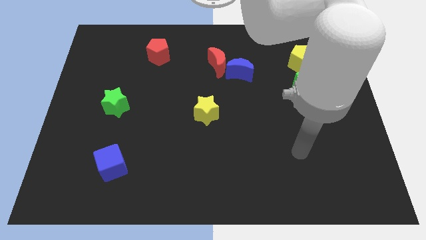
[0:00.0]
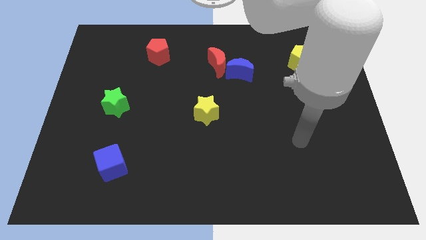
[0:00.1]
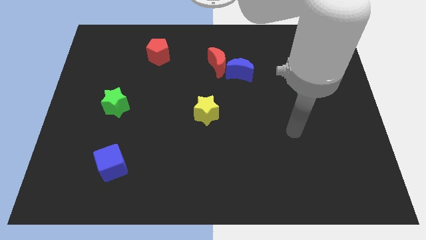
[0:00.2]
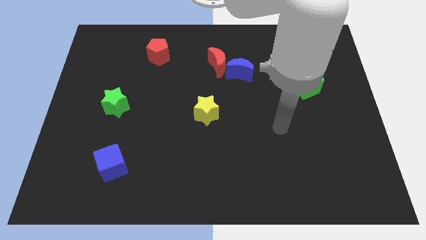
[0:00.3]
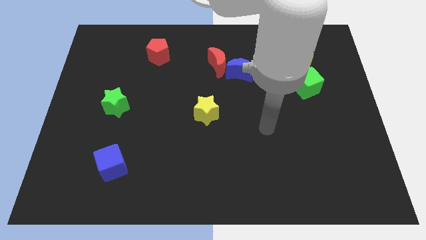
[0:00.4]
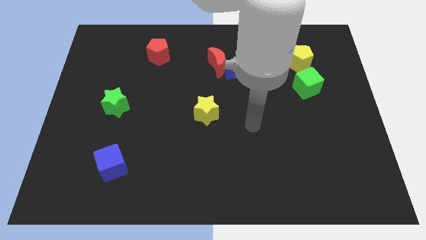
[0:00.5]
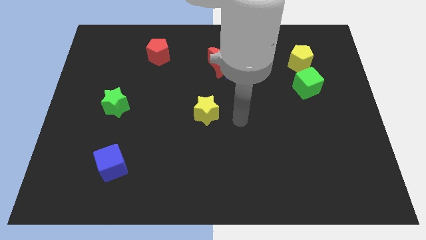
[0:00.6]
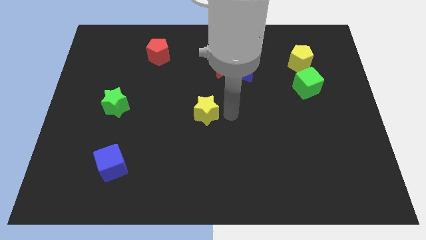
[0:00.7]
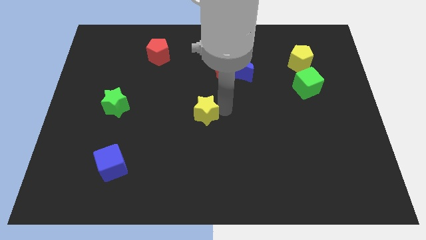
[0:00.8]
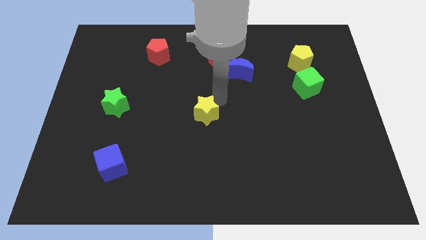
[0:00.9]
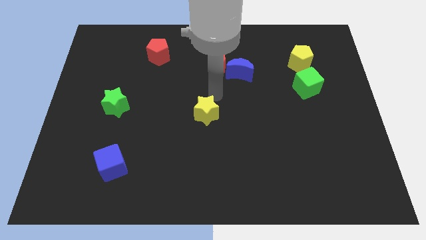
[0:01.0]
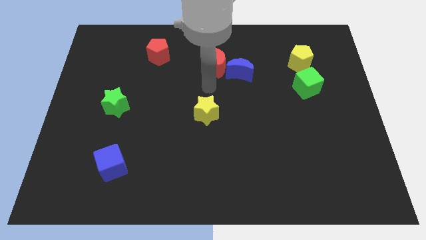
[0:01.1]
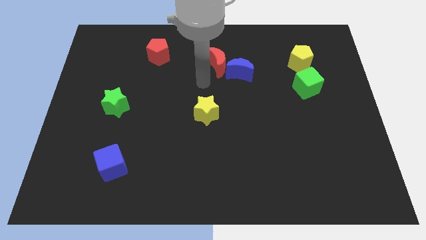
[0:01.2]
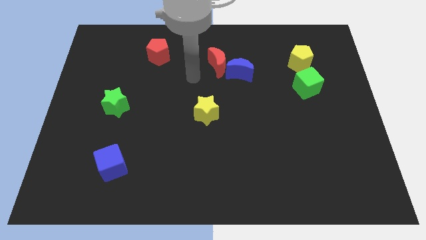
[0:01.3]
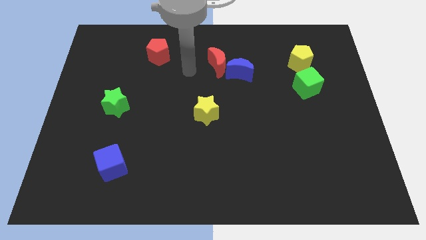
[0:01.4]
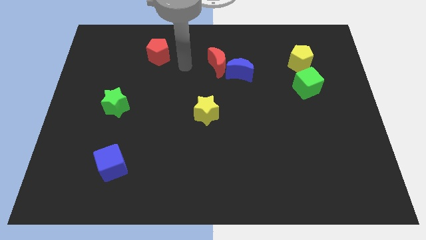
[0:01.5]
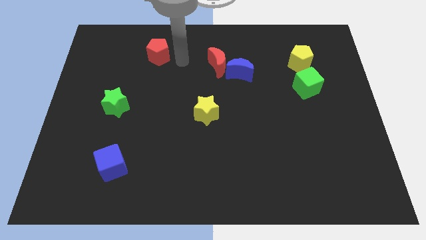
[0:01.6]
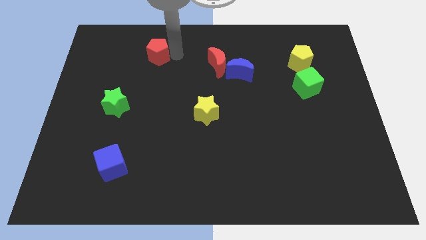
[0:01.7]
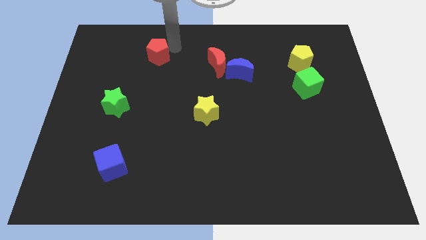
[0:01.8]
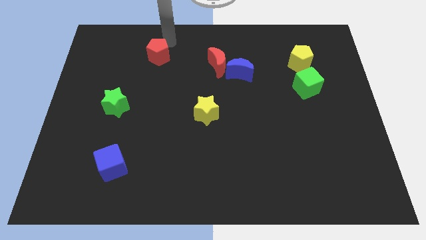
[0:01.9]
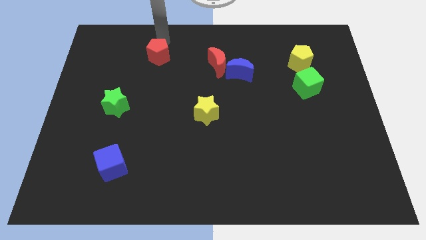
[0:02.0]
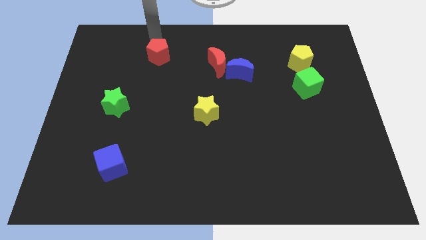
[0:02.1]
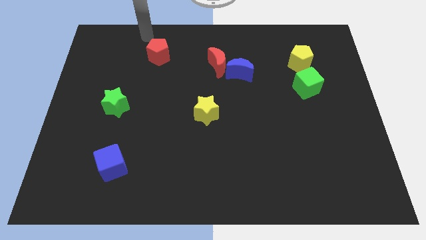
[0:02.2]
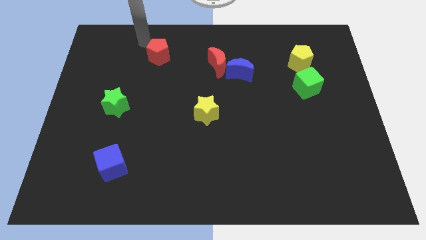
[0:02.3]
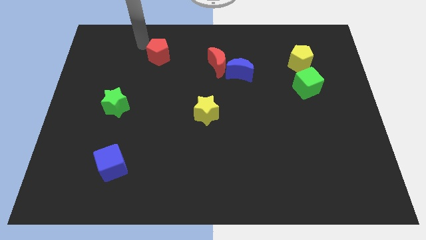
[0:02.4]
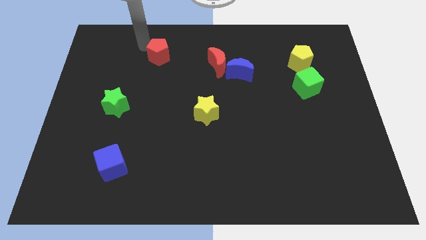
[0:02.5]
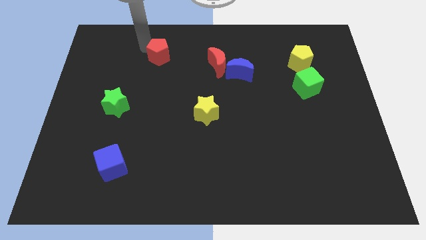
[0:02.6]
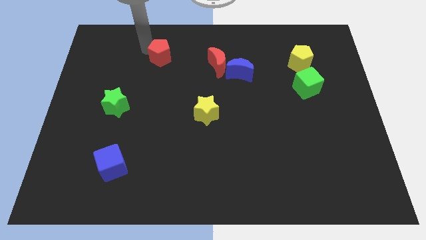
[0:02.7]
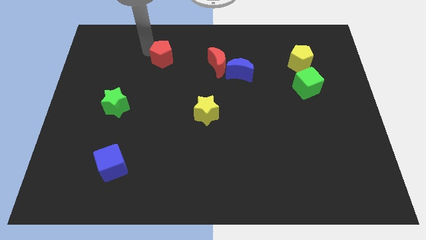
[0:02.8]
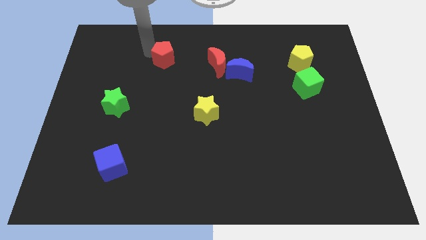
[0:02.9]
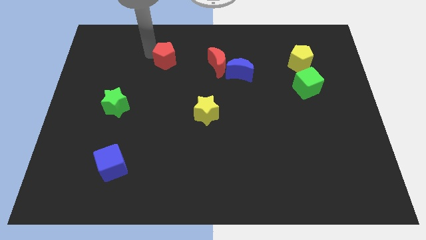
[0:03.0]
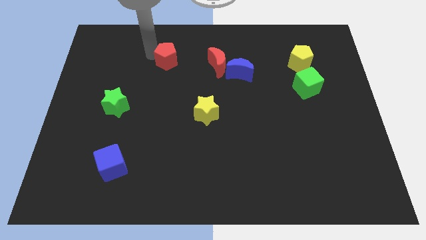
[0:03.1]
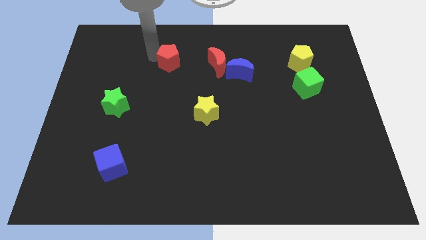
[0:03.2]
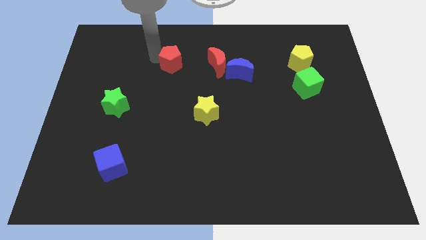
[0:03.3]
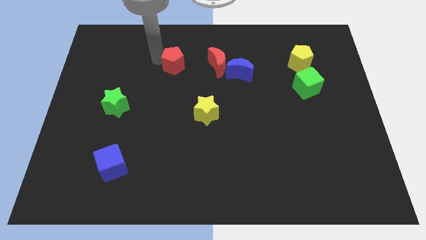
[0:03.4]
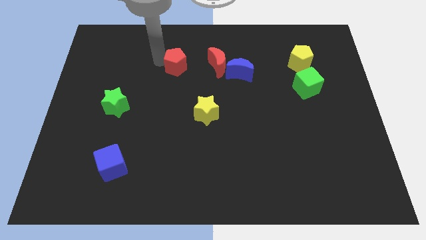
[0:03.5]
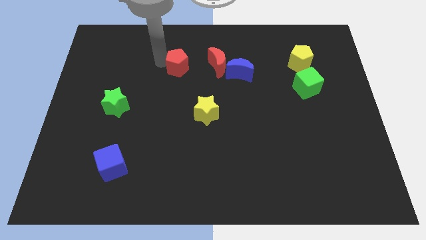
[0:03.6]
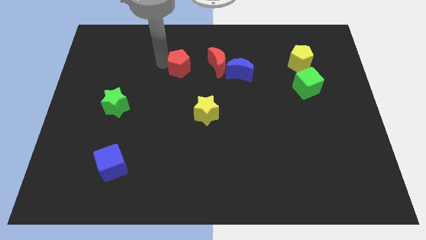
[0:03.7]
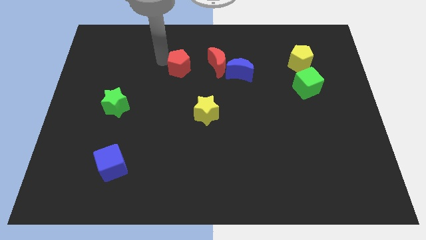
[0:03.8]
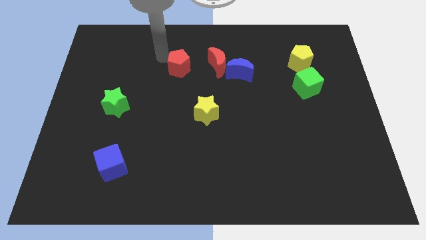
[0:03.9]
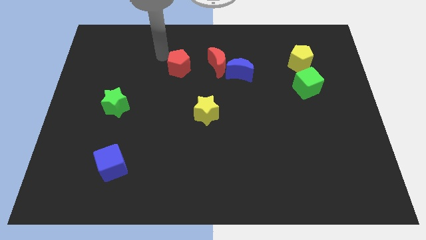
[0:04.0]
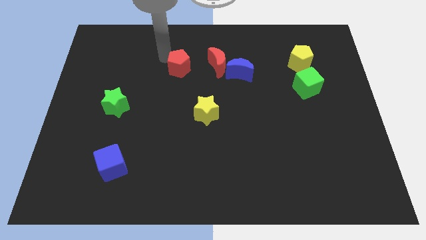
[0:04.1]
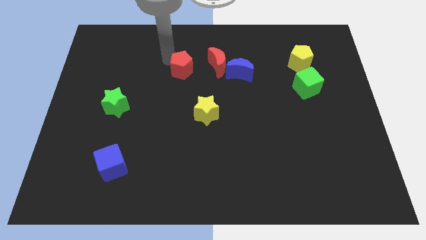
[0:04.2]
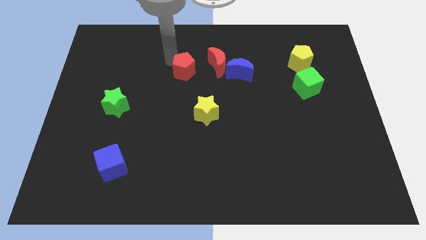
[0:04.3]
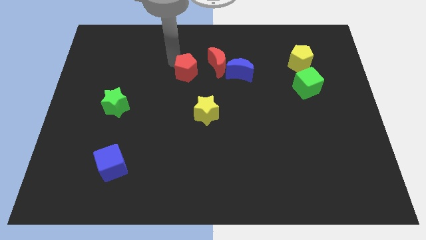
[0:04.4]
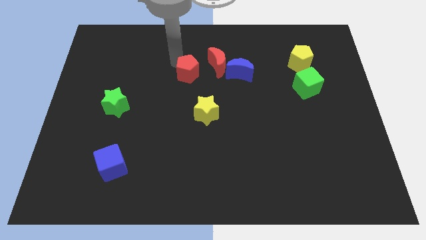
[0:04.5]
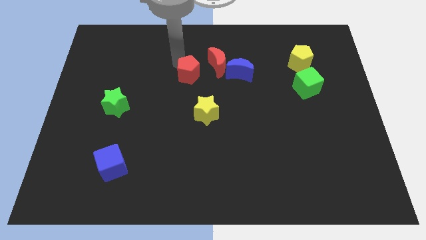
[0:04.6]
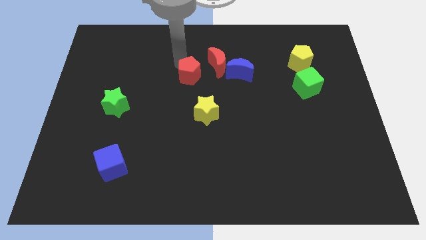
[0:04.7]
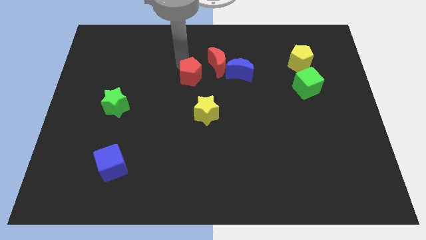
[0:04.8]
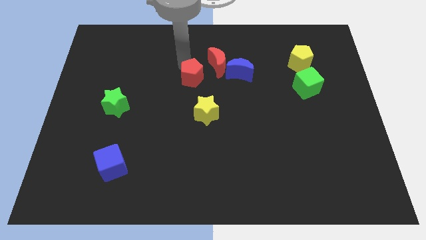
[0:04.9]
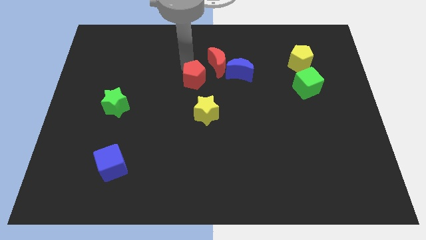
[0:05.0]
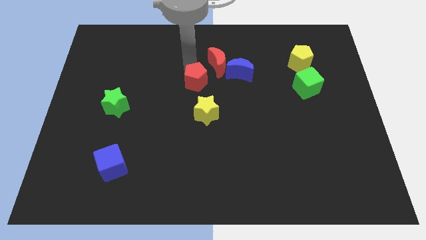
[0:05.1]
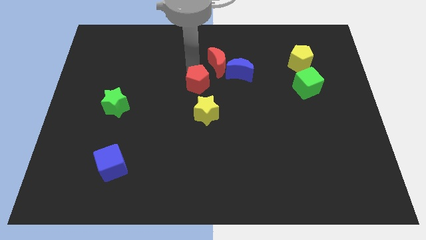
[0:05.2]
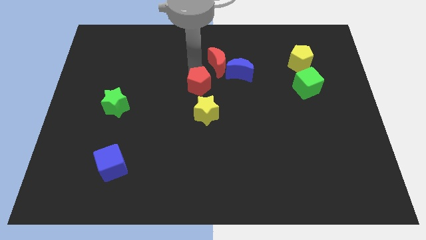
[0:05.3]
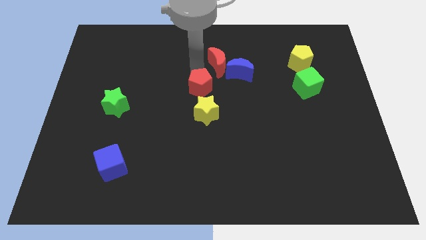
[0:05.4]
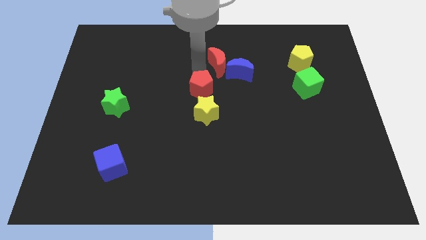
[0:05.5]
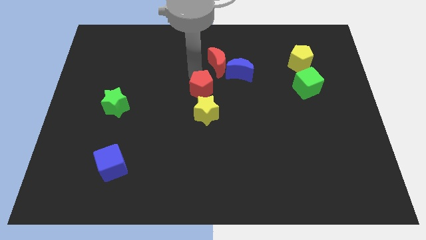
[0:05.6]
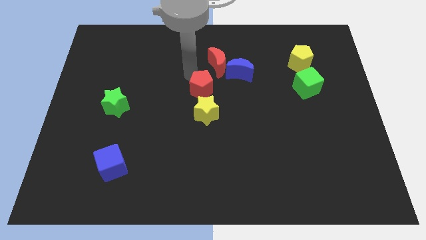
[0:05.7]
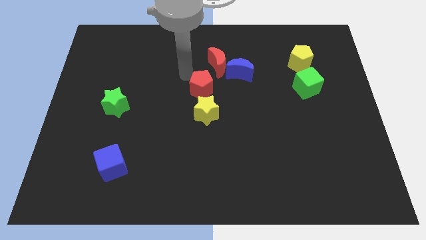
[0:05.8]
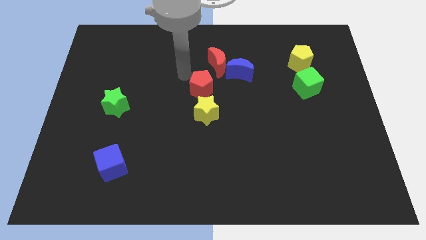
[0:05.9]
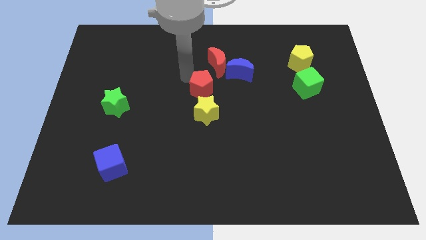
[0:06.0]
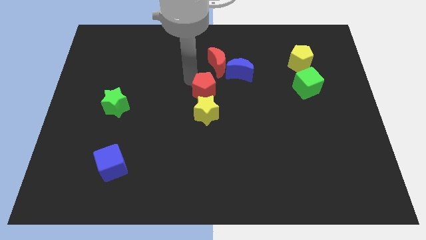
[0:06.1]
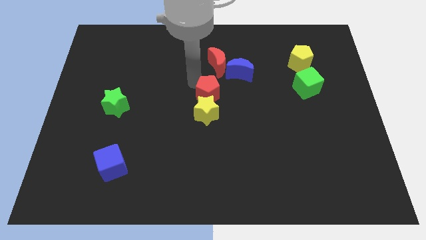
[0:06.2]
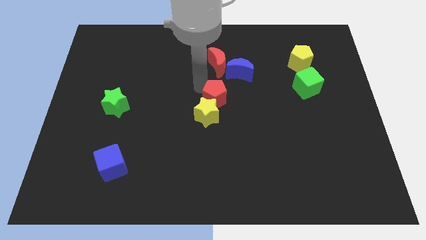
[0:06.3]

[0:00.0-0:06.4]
push the red pentagon downwards and to the right

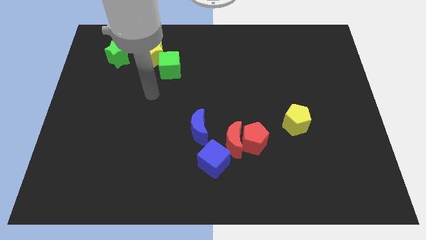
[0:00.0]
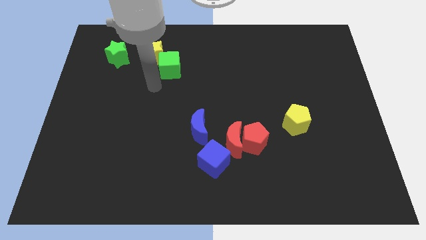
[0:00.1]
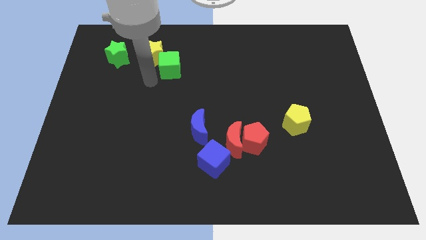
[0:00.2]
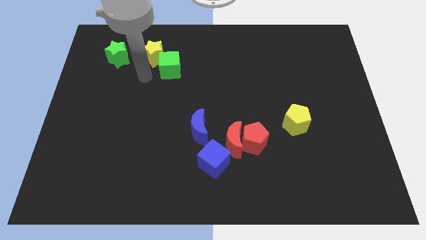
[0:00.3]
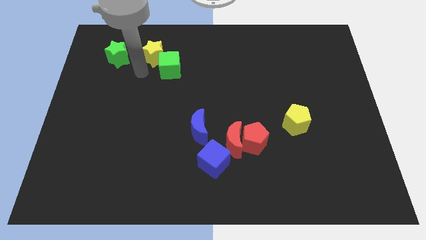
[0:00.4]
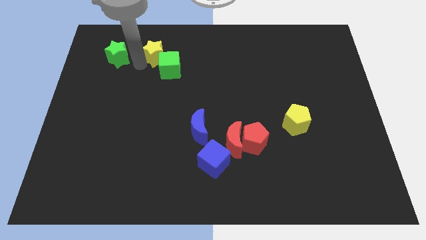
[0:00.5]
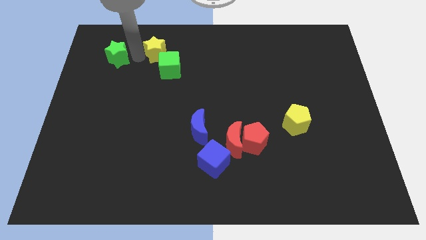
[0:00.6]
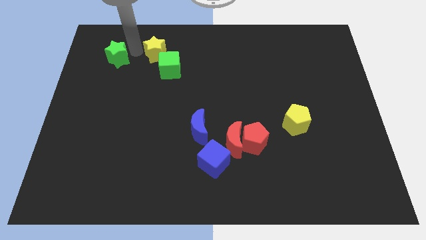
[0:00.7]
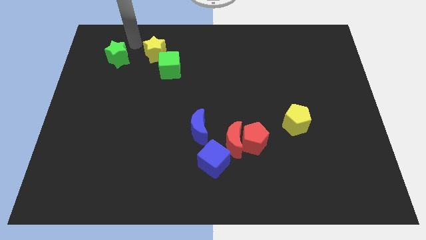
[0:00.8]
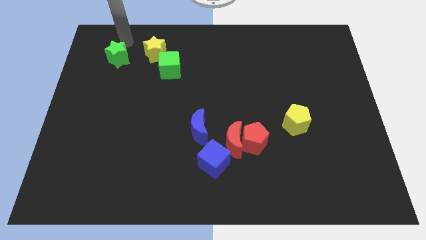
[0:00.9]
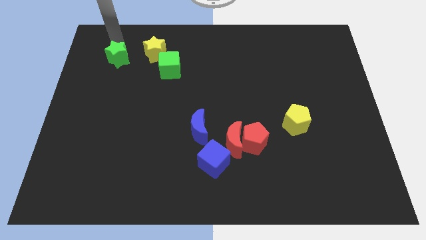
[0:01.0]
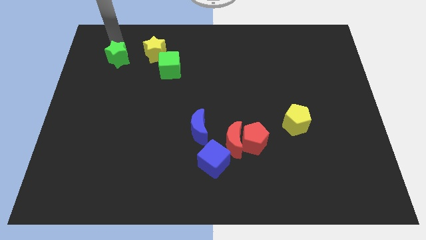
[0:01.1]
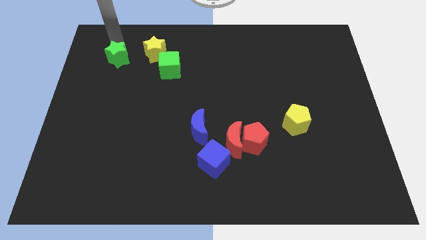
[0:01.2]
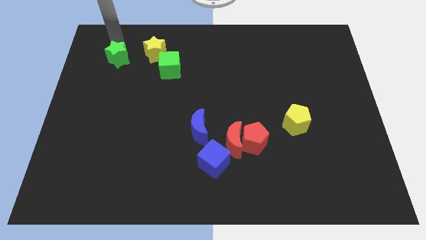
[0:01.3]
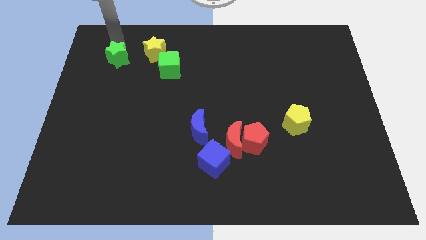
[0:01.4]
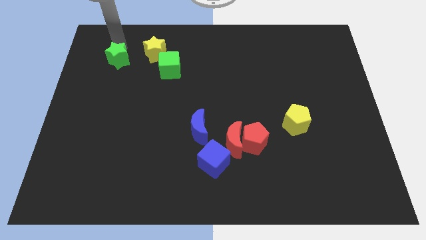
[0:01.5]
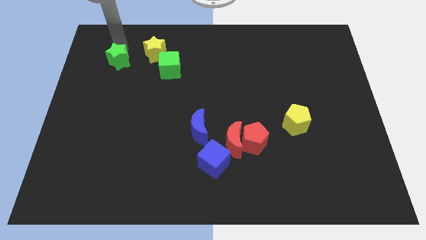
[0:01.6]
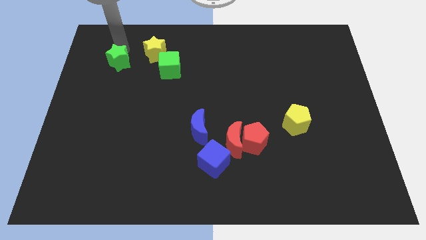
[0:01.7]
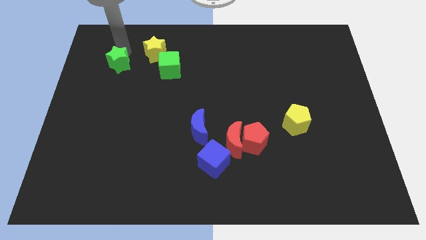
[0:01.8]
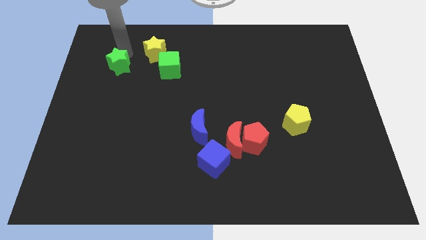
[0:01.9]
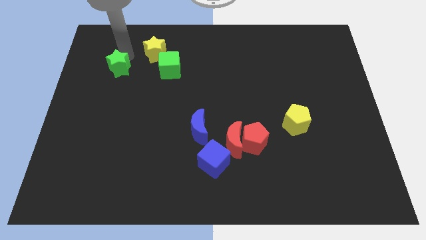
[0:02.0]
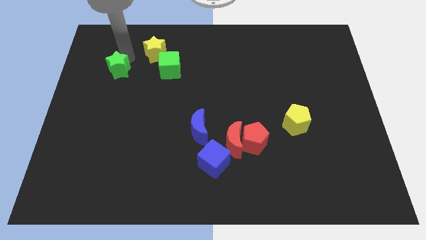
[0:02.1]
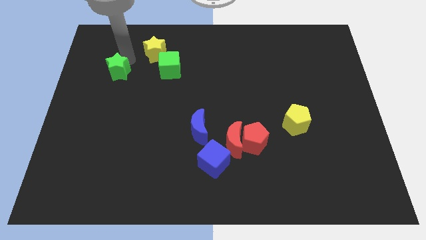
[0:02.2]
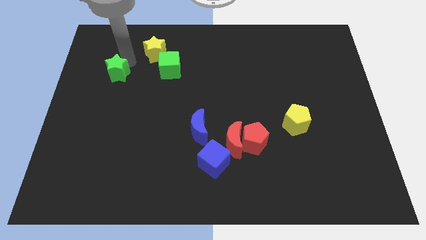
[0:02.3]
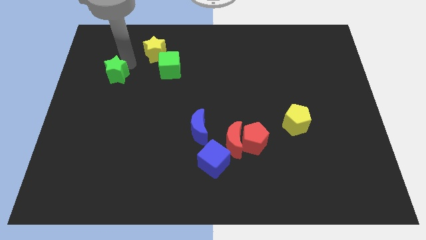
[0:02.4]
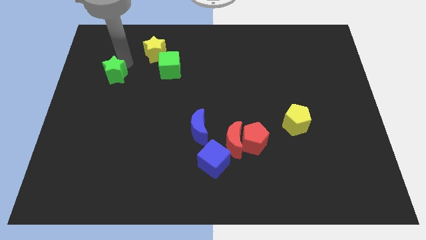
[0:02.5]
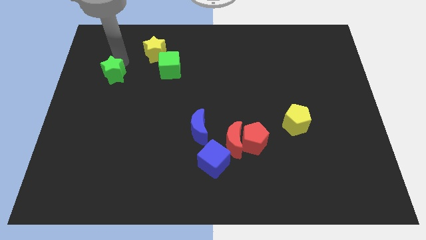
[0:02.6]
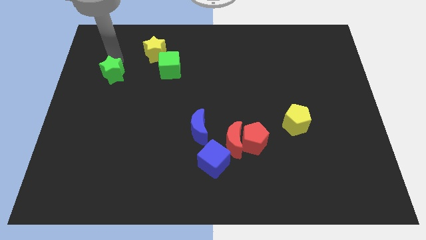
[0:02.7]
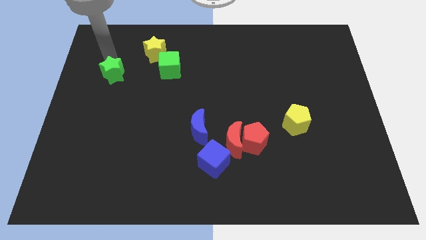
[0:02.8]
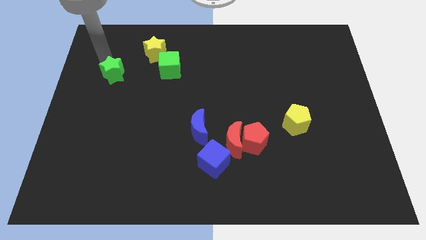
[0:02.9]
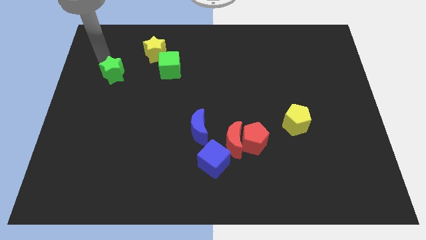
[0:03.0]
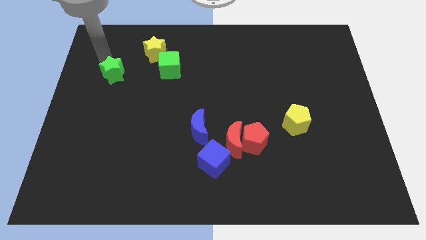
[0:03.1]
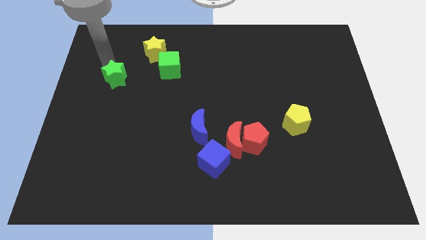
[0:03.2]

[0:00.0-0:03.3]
slightly push the green star downwards
